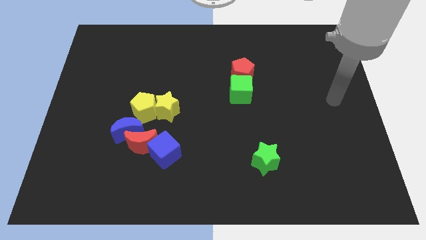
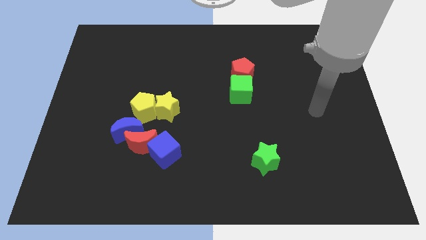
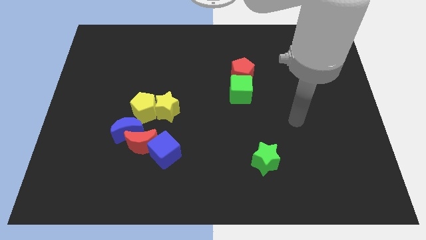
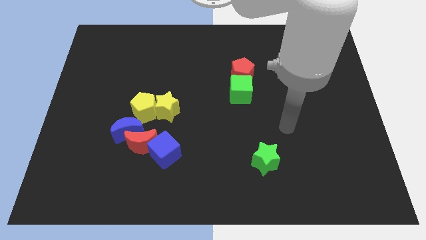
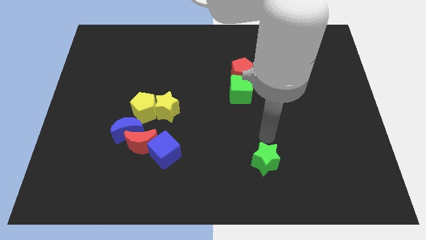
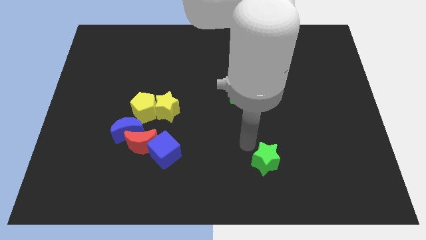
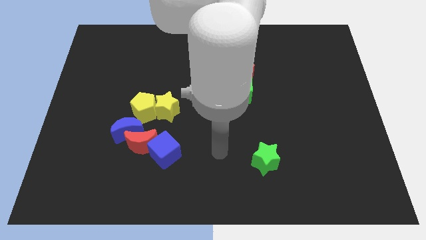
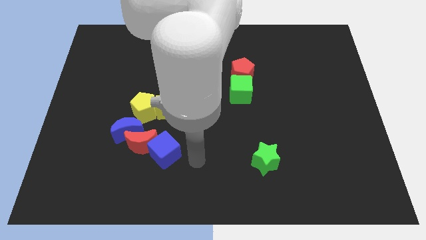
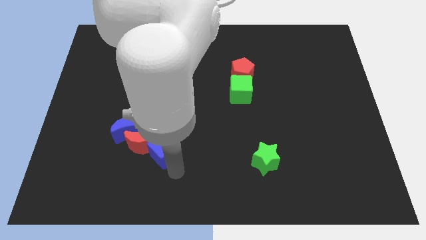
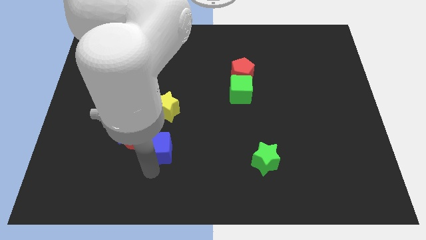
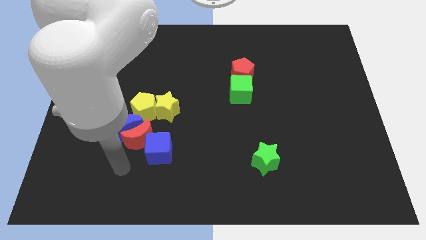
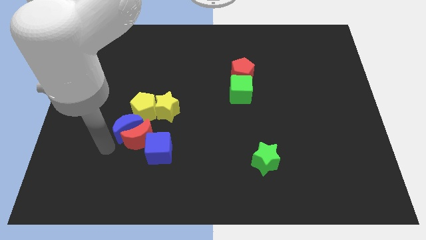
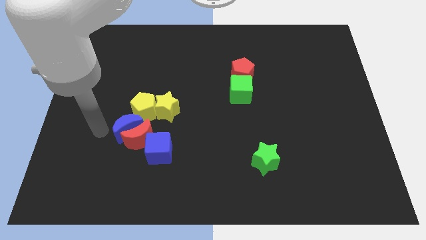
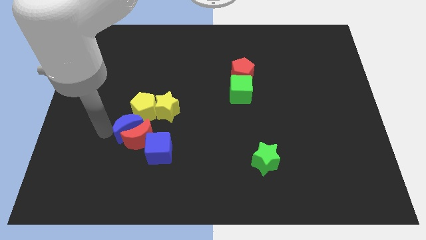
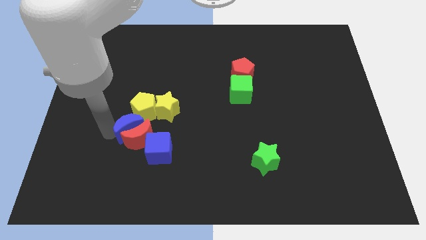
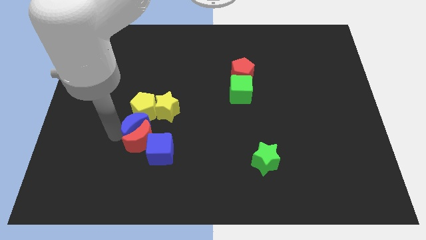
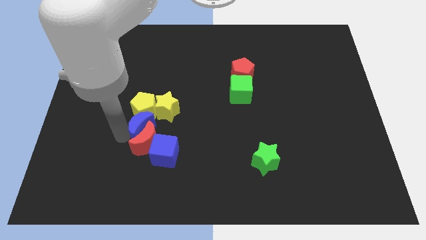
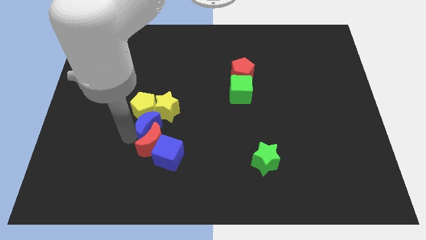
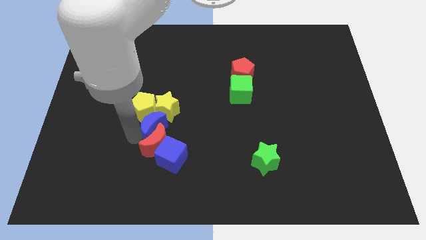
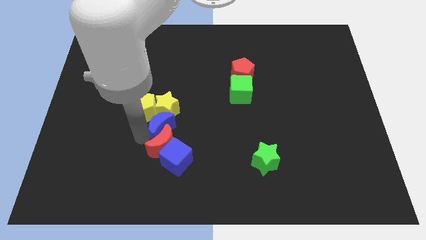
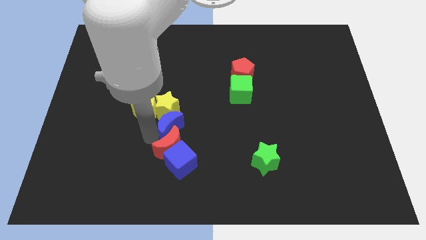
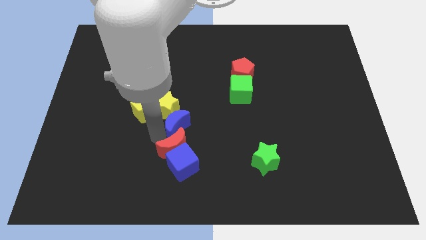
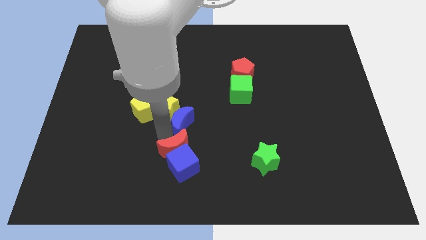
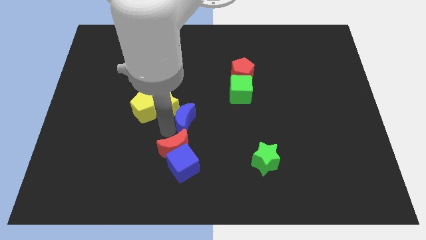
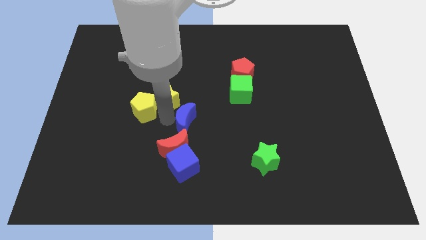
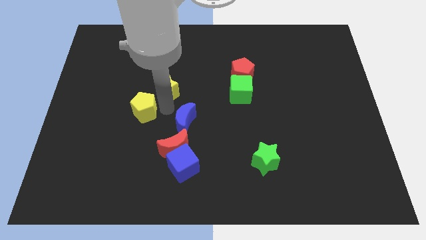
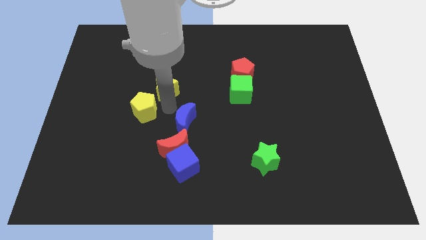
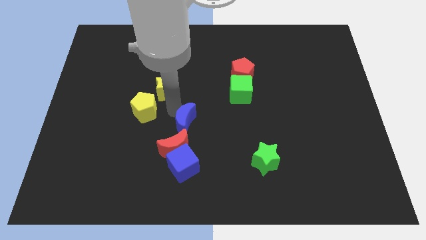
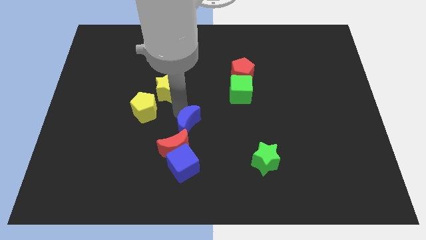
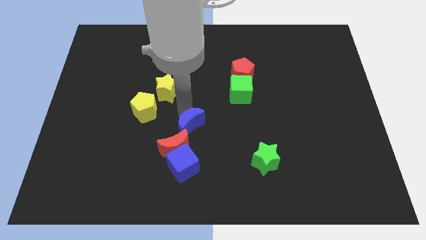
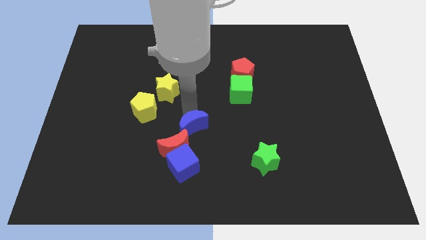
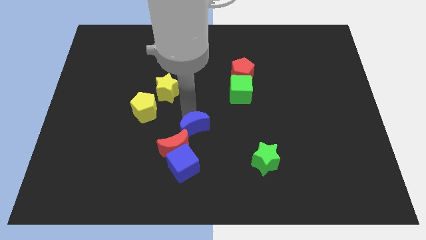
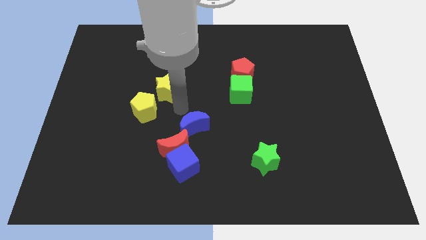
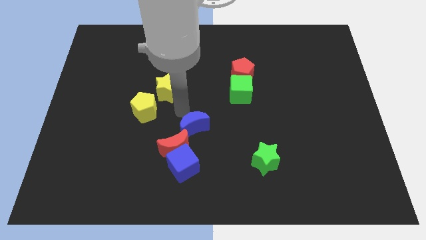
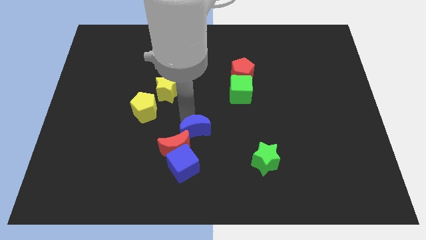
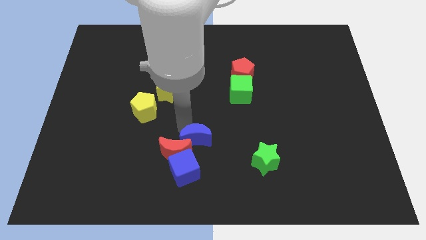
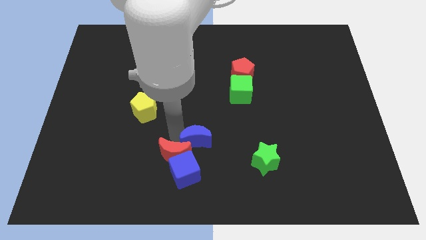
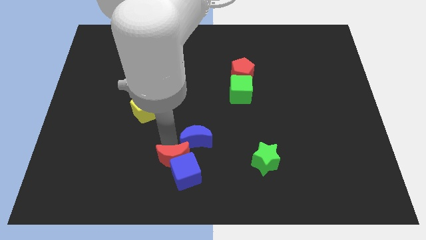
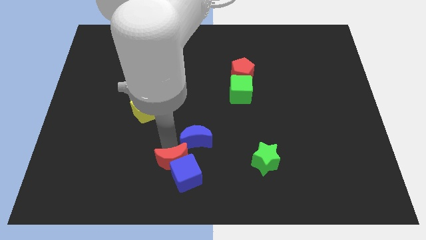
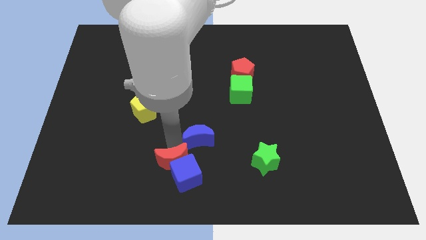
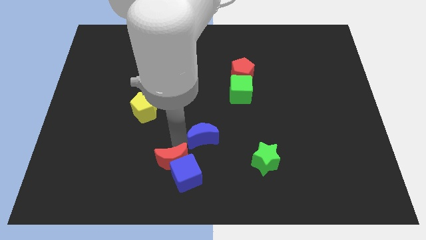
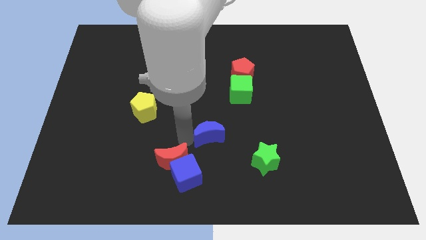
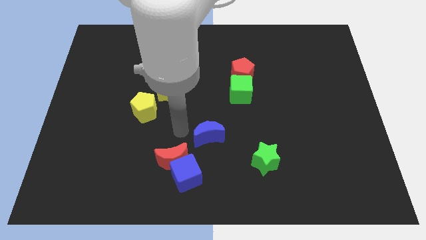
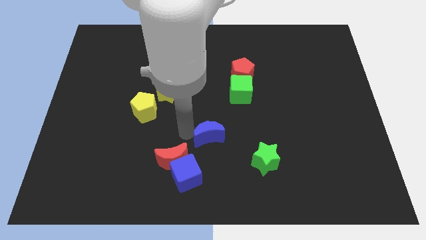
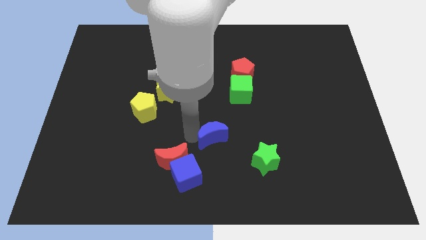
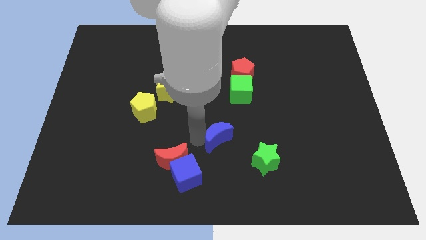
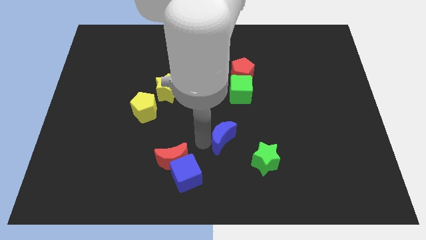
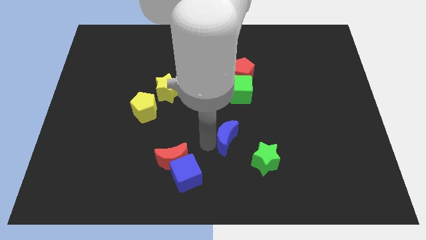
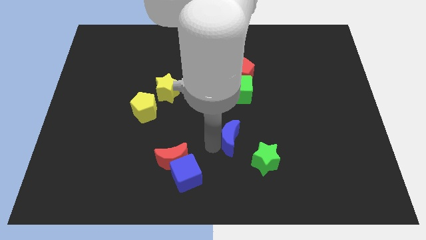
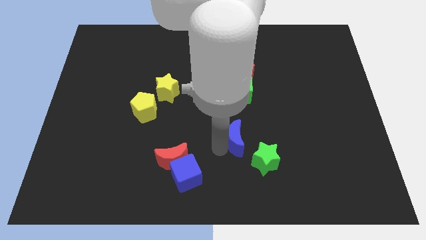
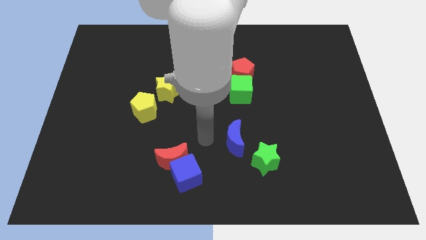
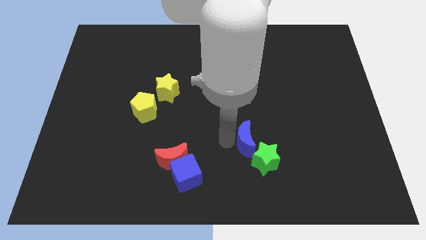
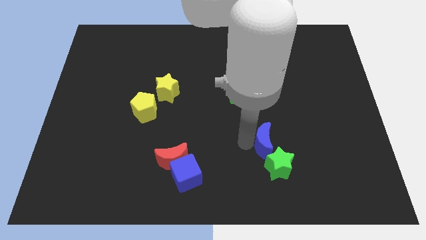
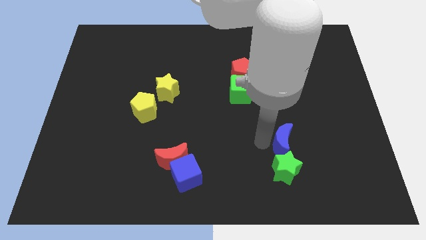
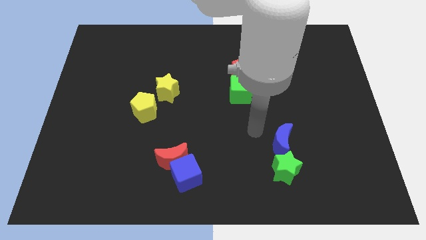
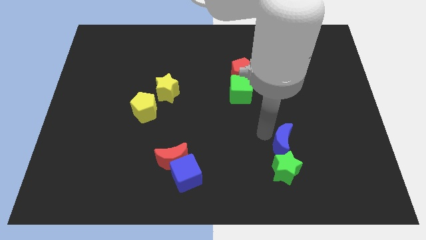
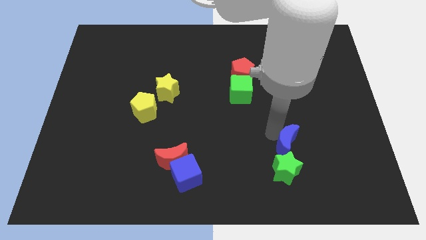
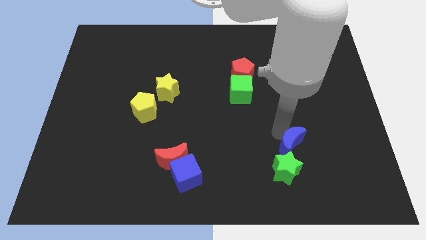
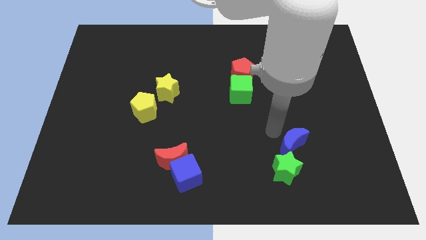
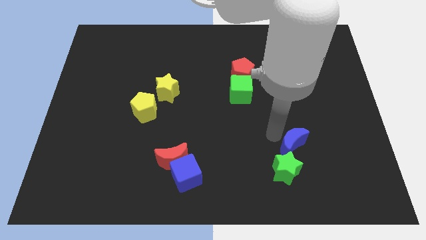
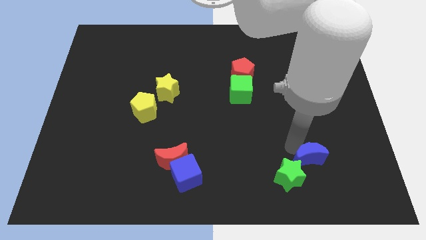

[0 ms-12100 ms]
put the blue moon to the right of the green star

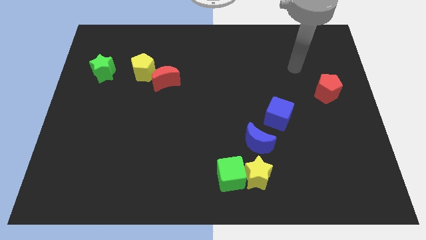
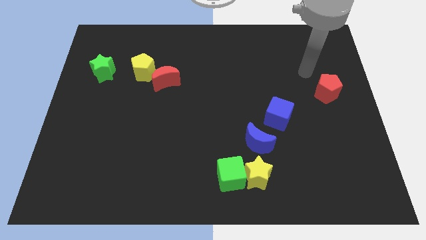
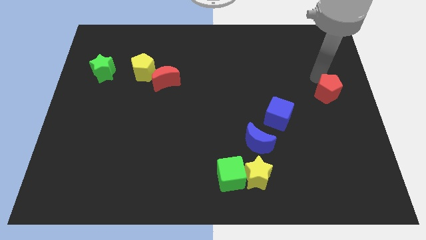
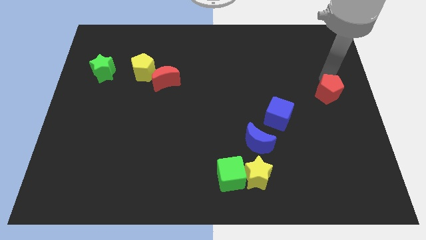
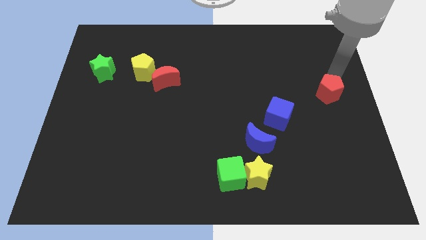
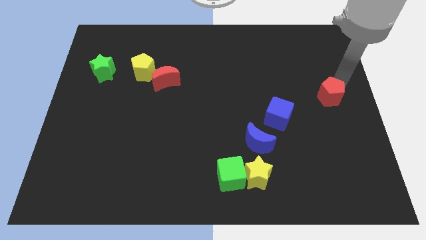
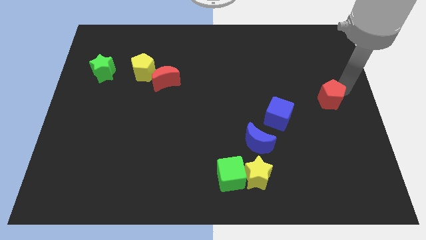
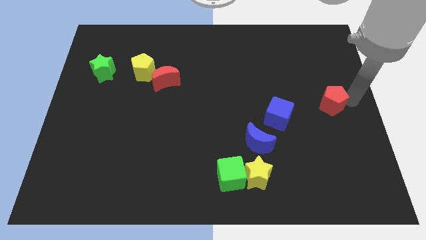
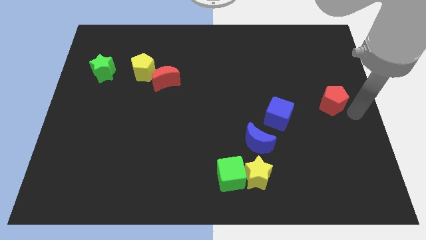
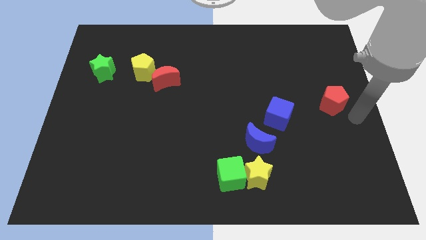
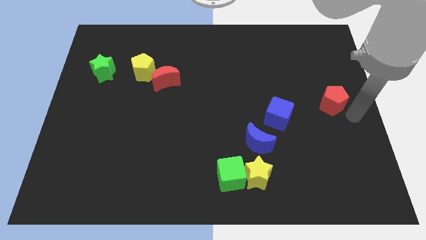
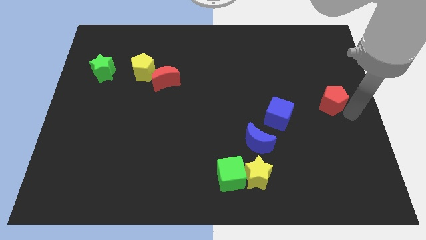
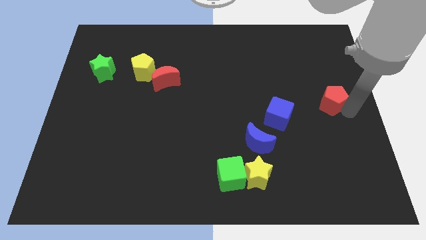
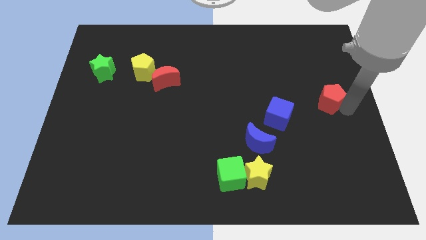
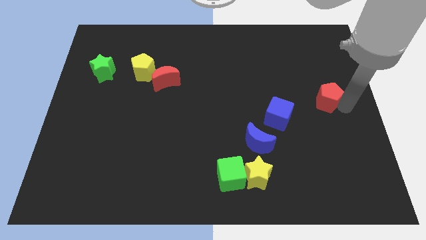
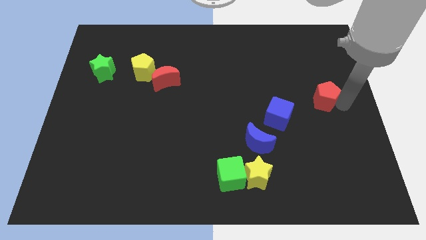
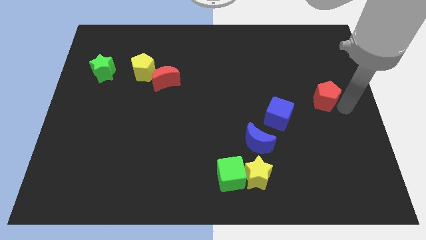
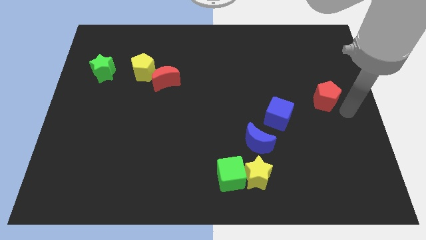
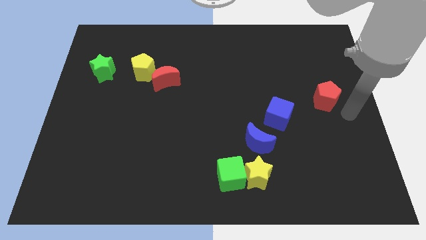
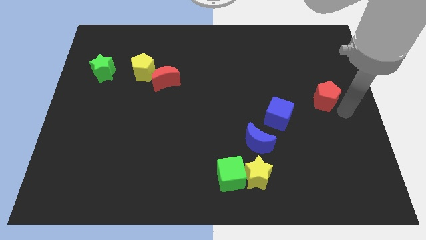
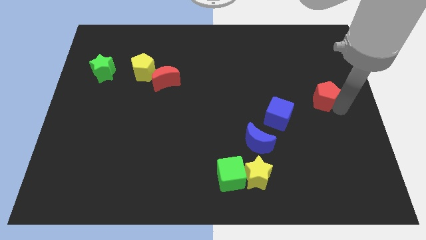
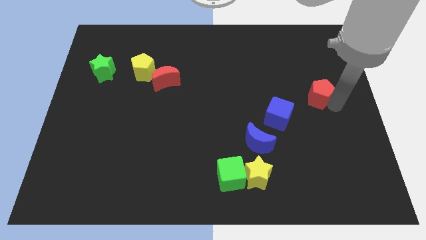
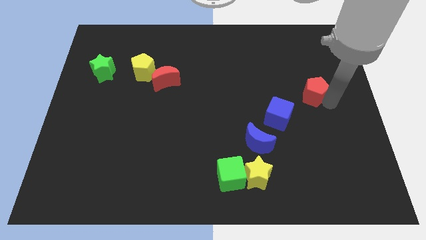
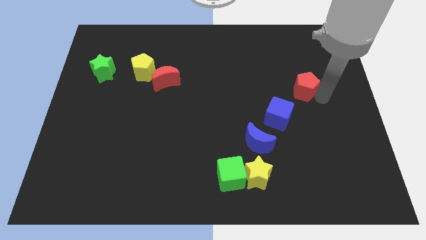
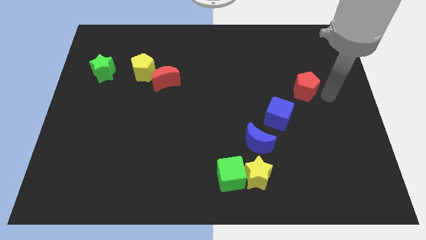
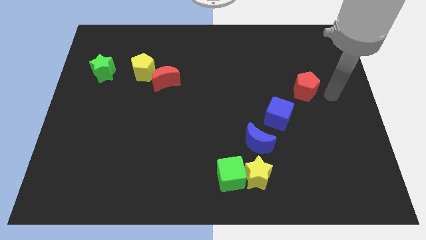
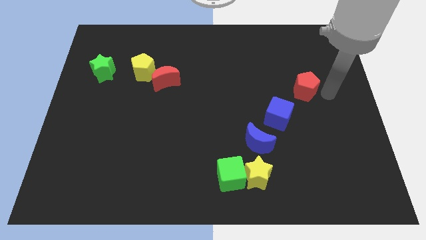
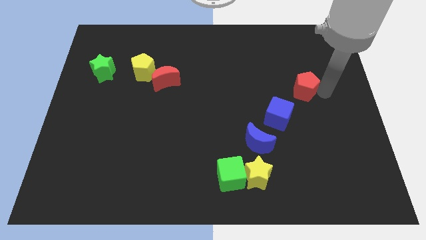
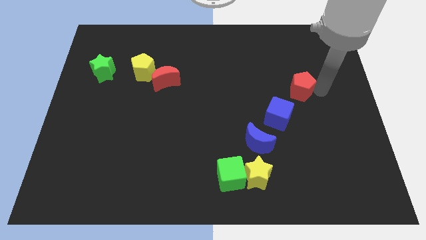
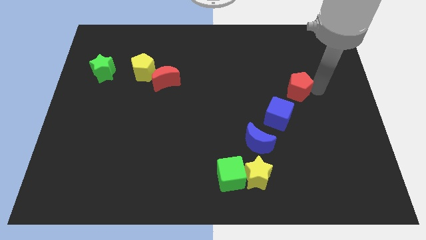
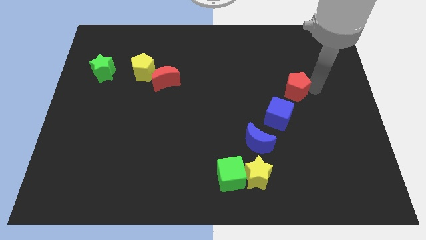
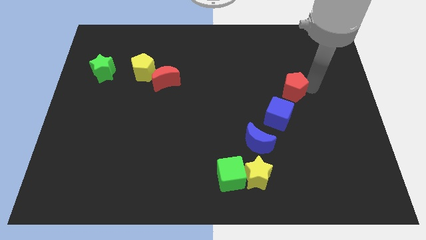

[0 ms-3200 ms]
move the red pentagon to the top side of the blue cube
